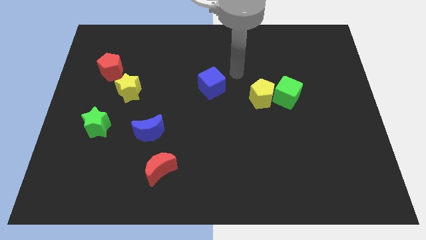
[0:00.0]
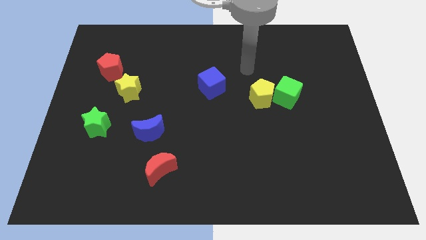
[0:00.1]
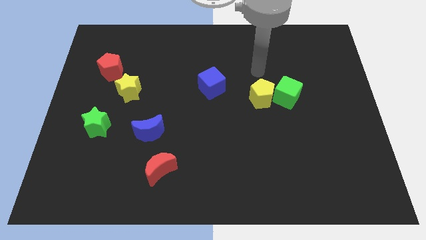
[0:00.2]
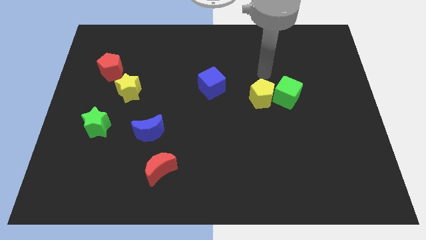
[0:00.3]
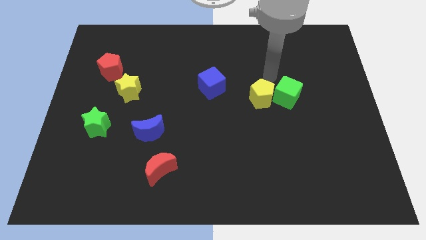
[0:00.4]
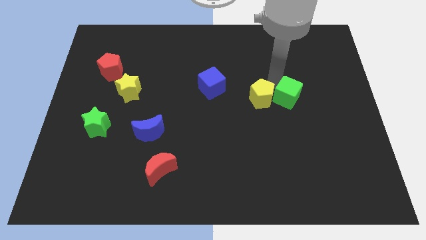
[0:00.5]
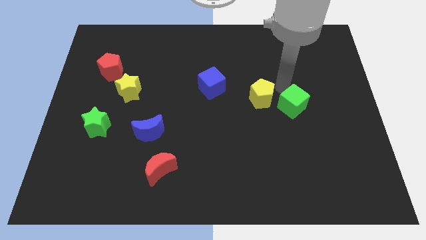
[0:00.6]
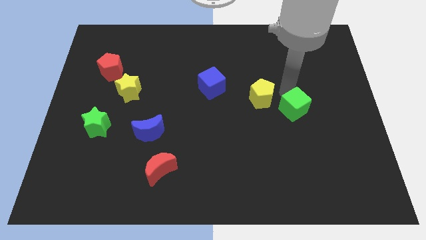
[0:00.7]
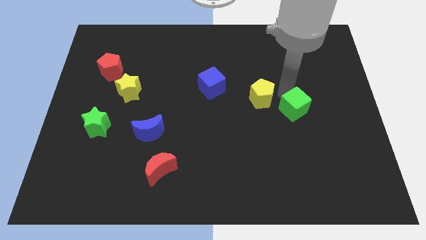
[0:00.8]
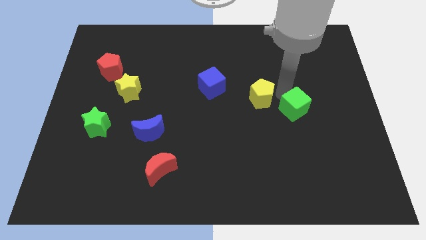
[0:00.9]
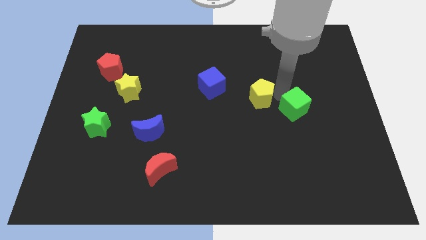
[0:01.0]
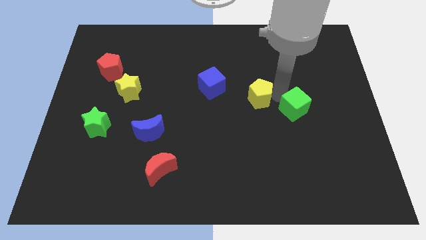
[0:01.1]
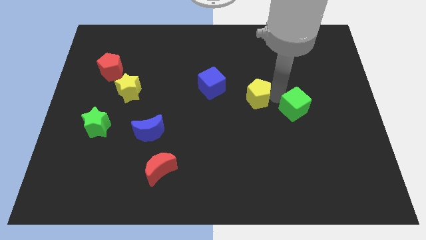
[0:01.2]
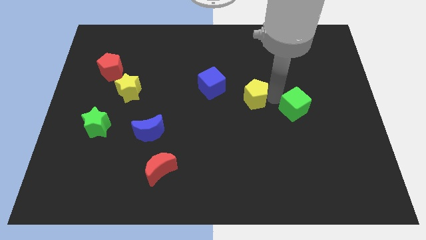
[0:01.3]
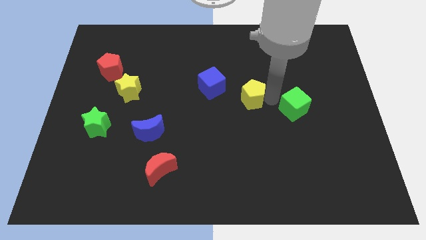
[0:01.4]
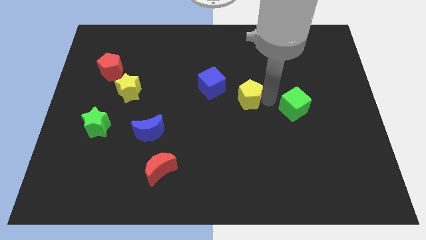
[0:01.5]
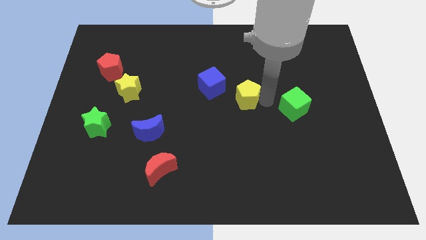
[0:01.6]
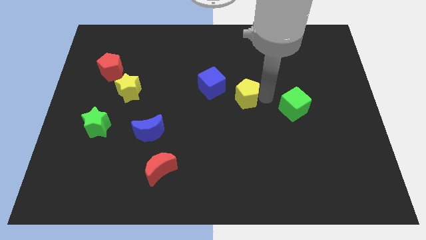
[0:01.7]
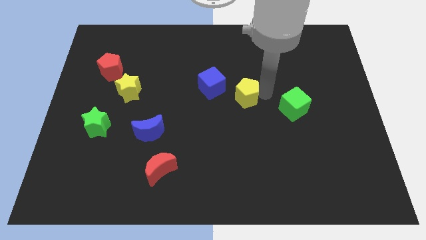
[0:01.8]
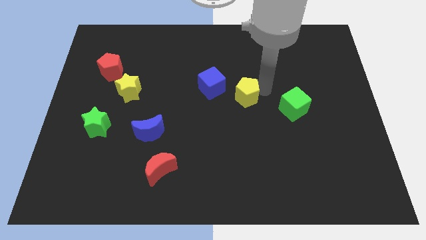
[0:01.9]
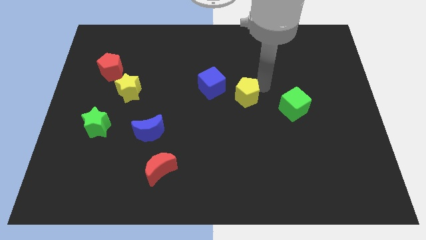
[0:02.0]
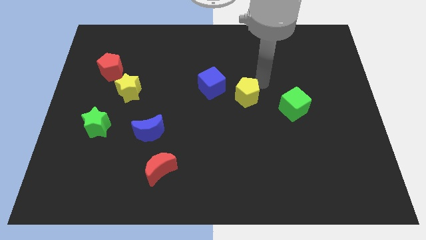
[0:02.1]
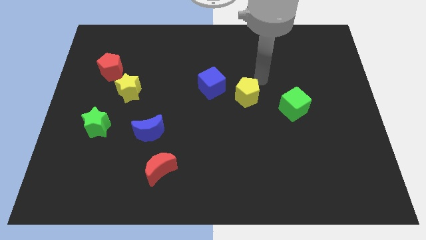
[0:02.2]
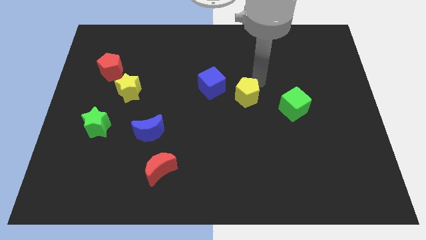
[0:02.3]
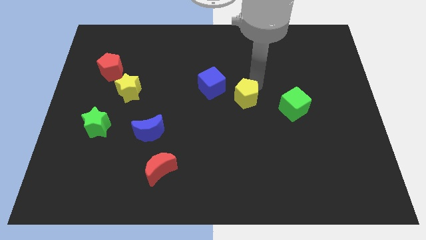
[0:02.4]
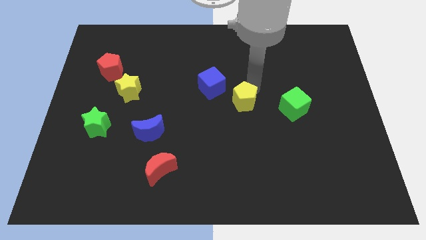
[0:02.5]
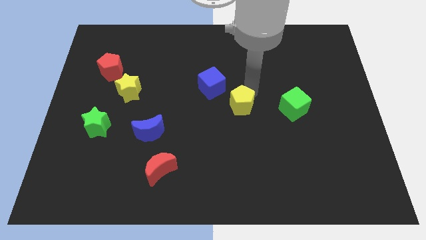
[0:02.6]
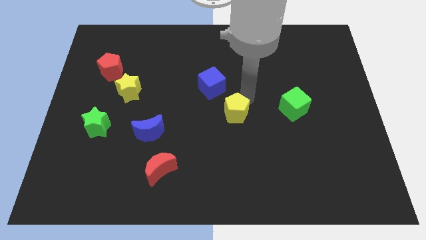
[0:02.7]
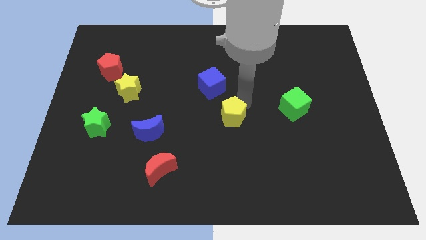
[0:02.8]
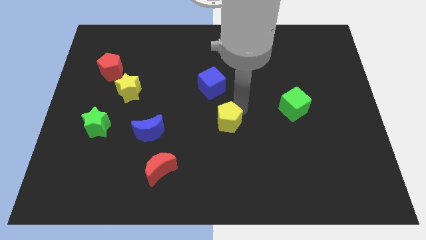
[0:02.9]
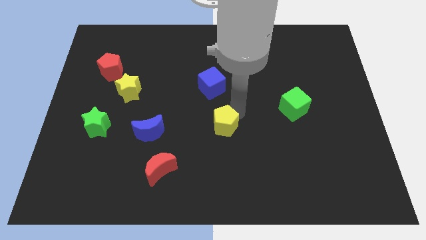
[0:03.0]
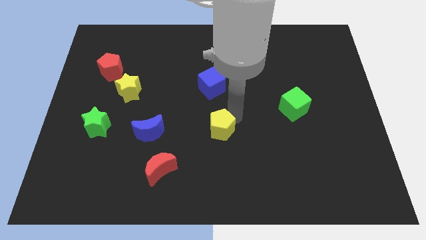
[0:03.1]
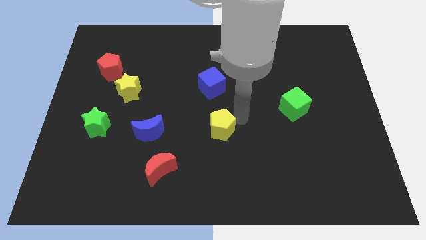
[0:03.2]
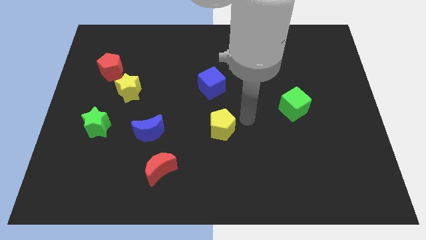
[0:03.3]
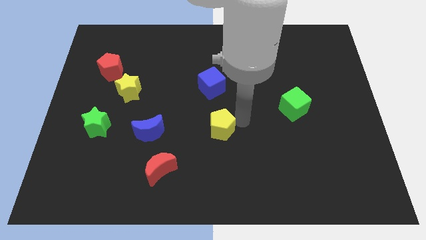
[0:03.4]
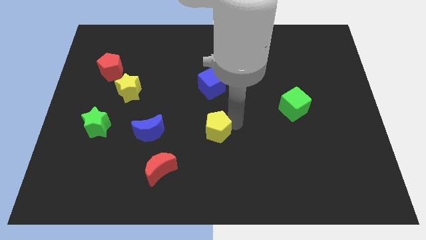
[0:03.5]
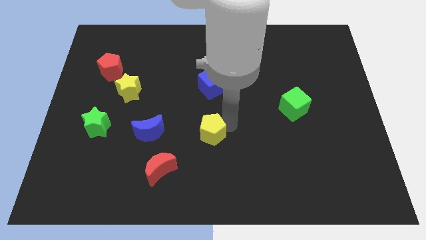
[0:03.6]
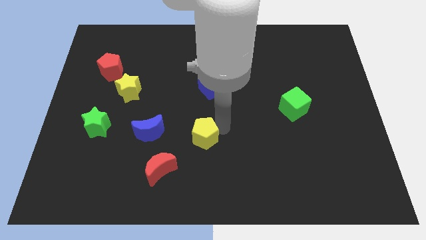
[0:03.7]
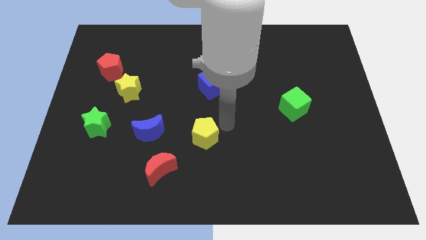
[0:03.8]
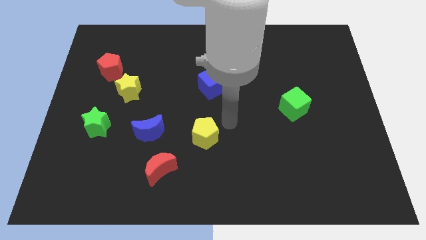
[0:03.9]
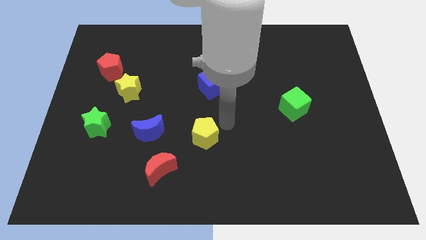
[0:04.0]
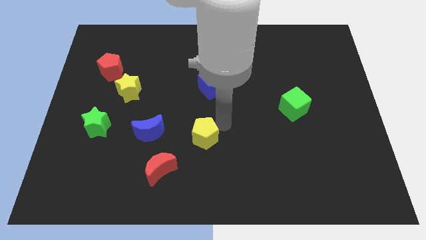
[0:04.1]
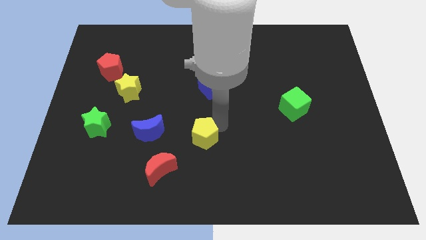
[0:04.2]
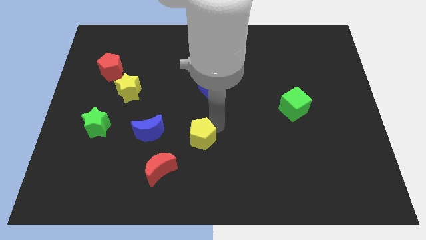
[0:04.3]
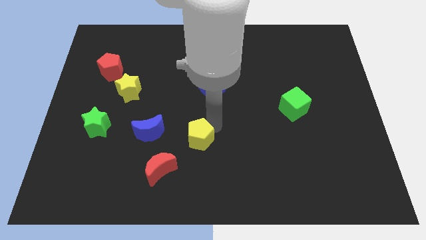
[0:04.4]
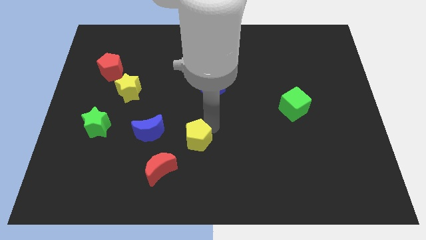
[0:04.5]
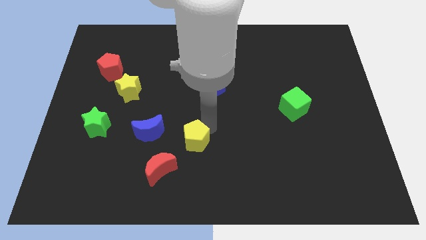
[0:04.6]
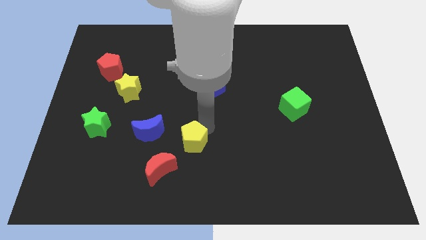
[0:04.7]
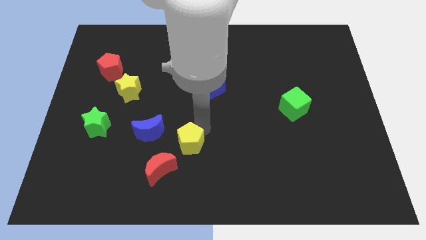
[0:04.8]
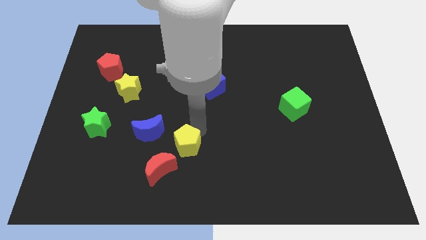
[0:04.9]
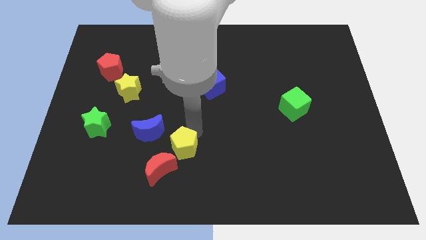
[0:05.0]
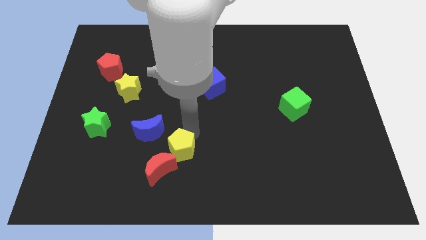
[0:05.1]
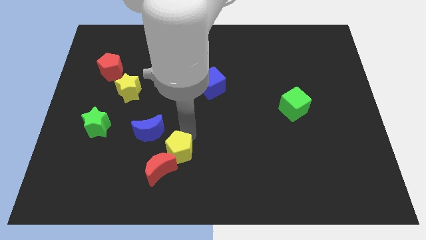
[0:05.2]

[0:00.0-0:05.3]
put the yellow pentagon close to the red moon
